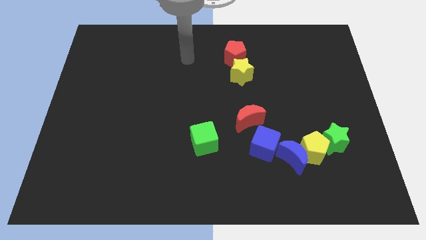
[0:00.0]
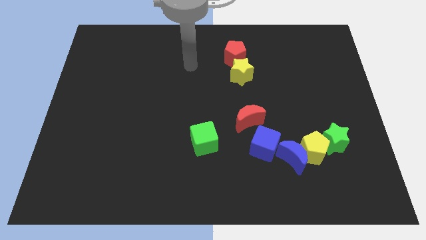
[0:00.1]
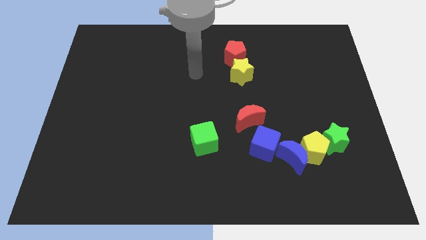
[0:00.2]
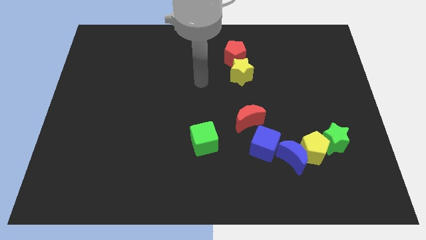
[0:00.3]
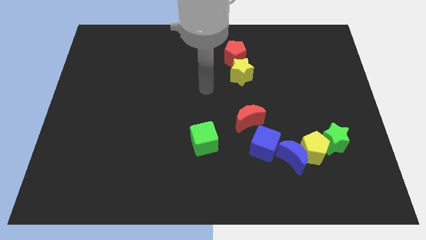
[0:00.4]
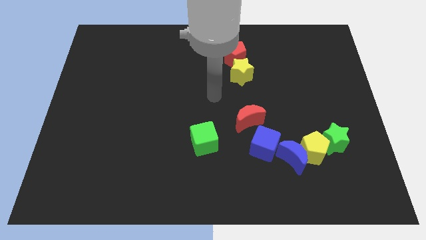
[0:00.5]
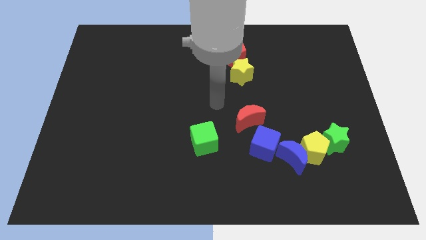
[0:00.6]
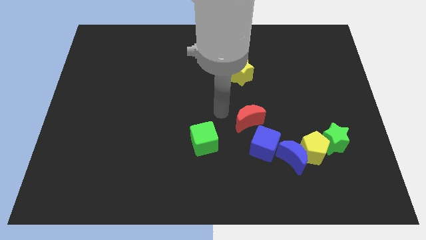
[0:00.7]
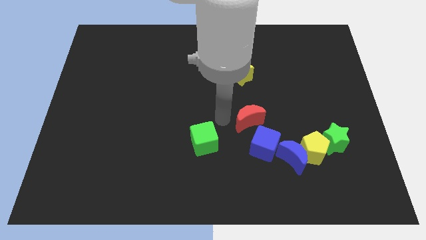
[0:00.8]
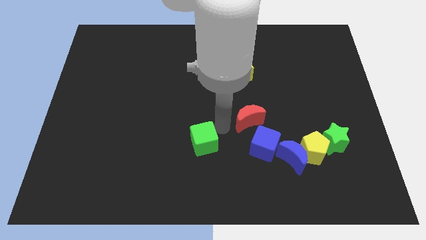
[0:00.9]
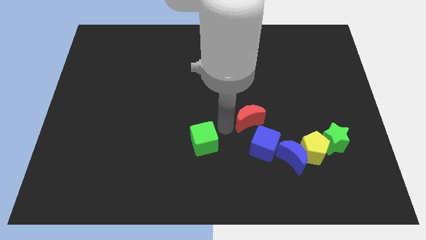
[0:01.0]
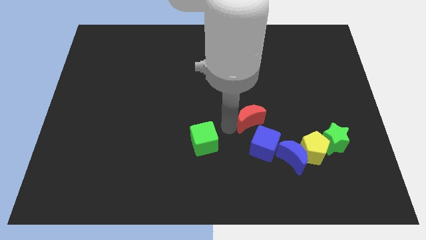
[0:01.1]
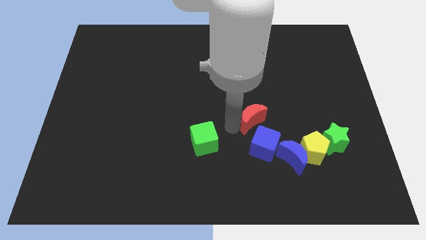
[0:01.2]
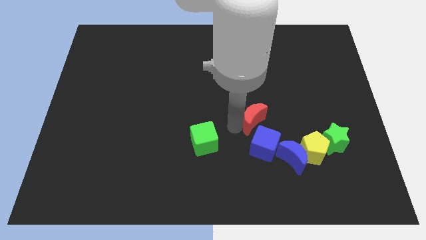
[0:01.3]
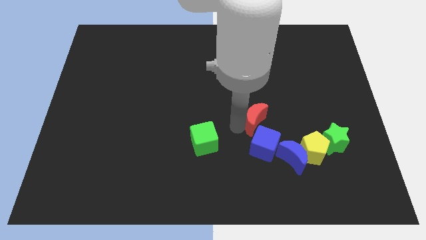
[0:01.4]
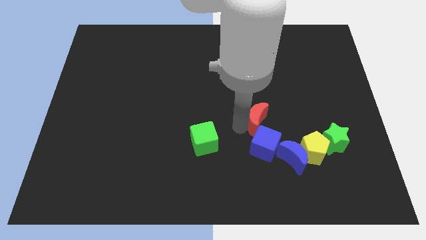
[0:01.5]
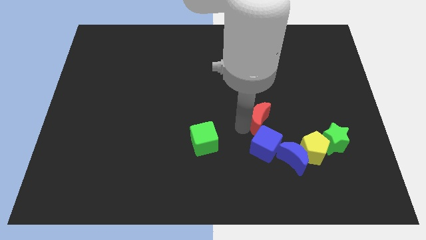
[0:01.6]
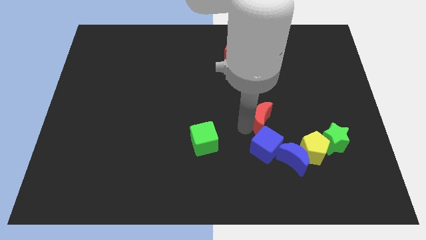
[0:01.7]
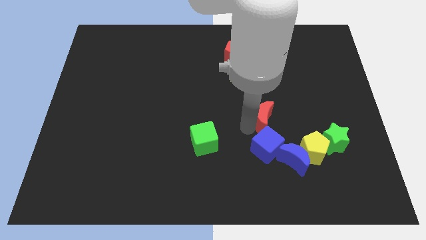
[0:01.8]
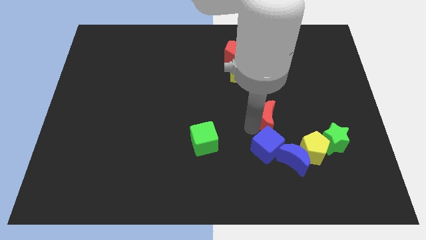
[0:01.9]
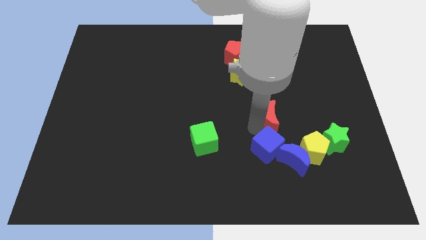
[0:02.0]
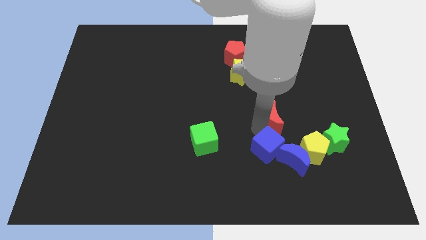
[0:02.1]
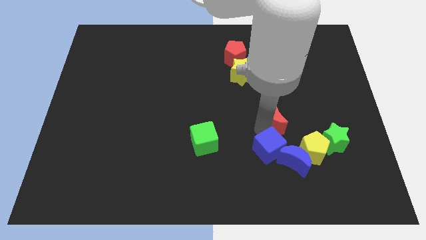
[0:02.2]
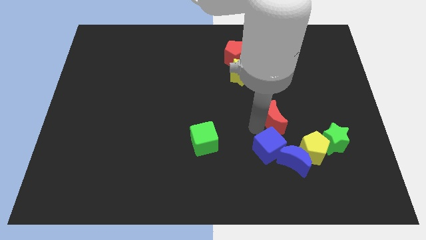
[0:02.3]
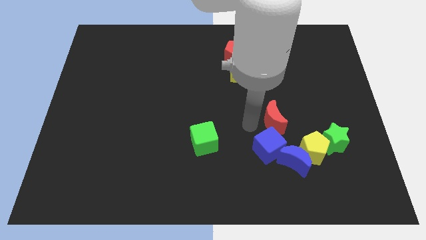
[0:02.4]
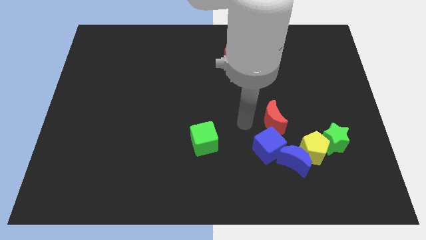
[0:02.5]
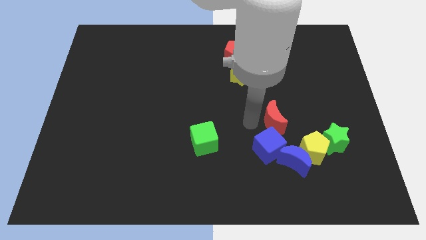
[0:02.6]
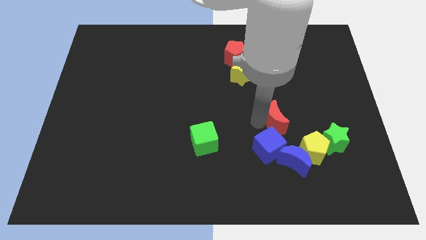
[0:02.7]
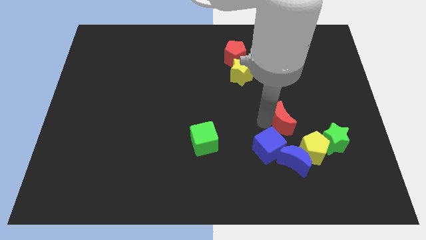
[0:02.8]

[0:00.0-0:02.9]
slightly push the red moon right

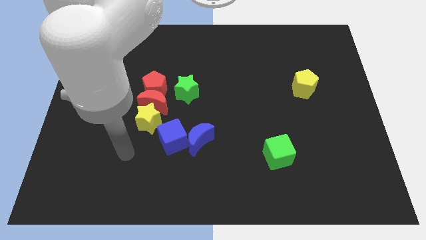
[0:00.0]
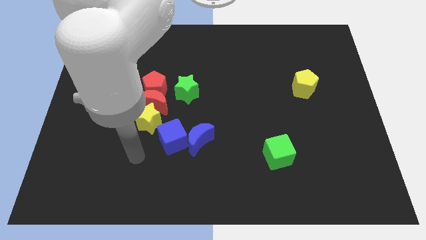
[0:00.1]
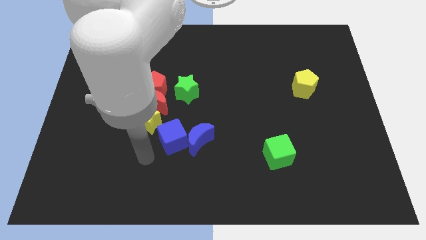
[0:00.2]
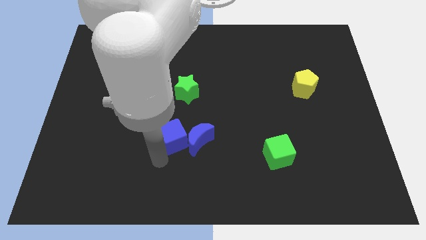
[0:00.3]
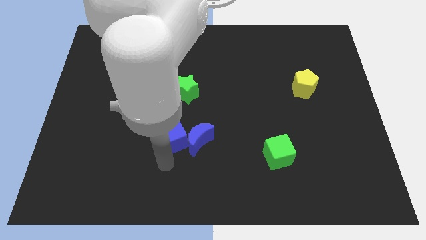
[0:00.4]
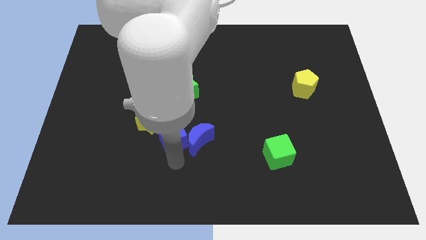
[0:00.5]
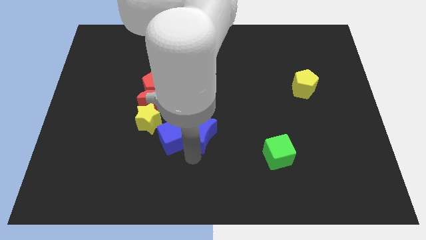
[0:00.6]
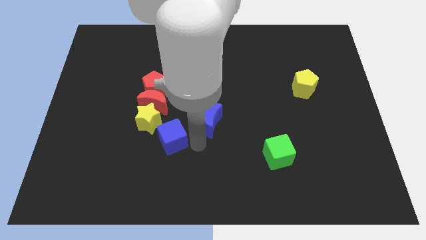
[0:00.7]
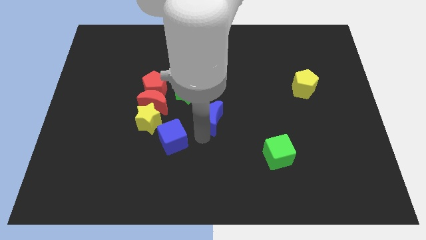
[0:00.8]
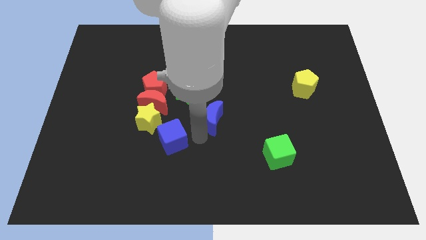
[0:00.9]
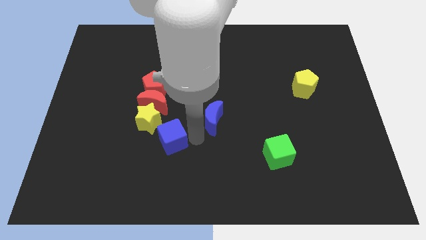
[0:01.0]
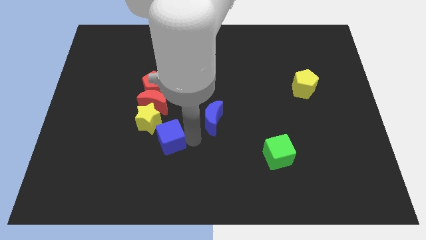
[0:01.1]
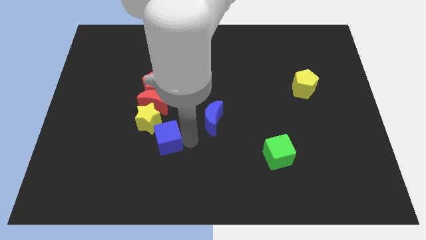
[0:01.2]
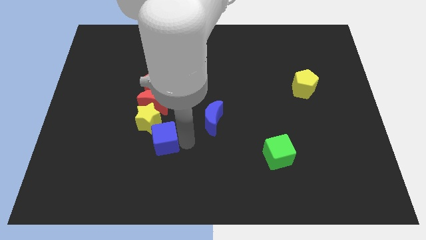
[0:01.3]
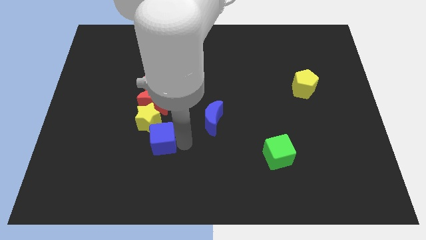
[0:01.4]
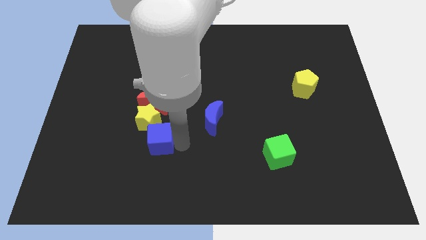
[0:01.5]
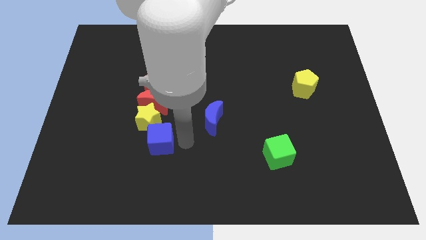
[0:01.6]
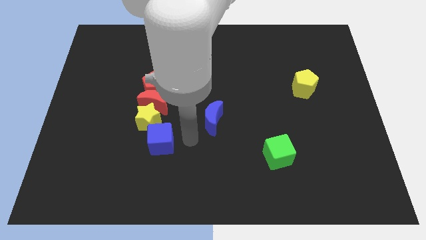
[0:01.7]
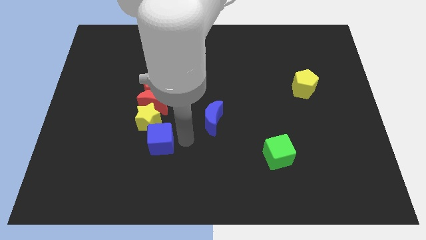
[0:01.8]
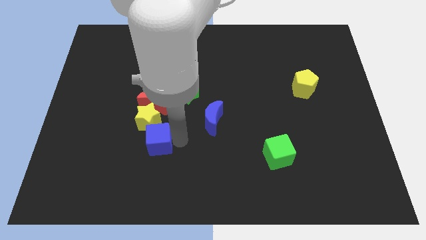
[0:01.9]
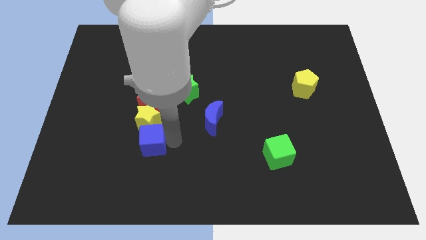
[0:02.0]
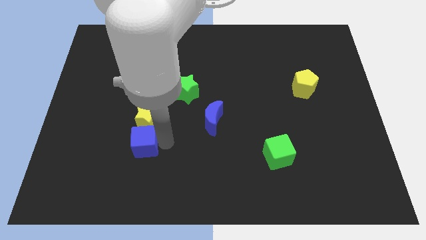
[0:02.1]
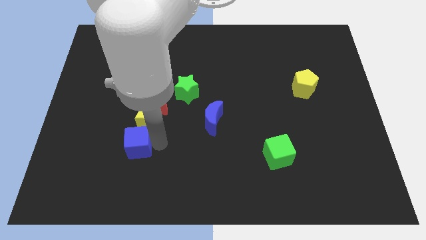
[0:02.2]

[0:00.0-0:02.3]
slide the blue cube left a little

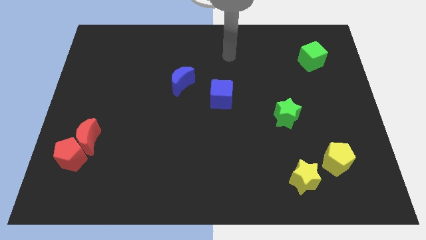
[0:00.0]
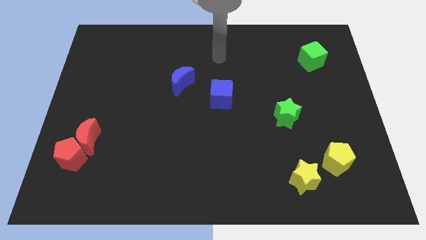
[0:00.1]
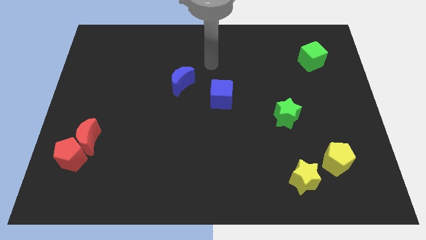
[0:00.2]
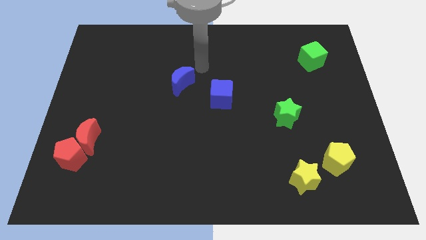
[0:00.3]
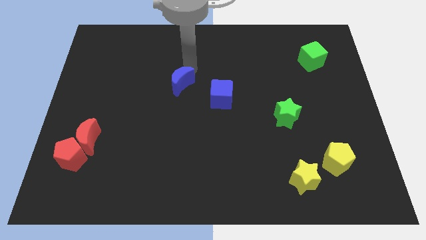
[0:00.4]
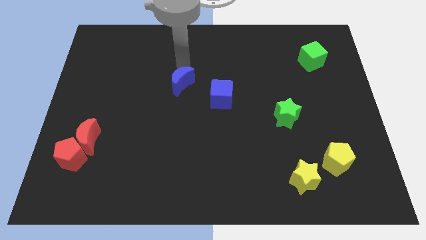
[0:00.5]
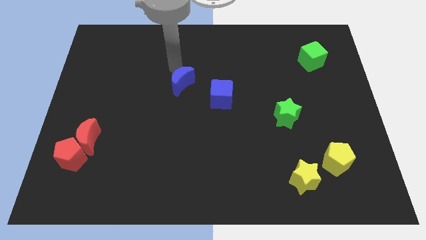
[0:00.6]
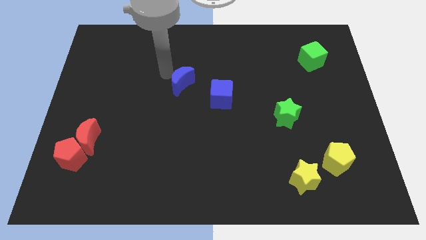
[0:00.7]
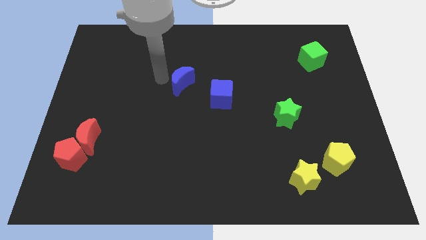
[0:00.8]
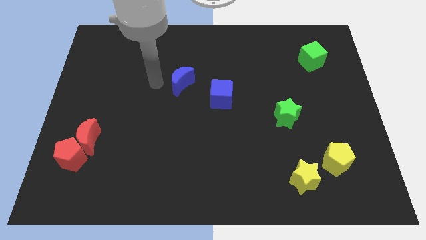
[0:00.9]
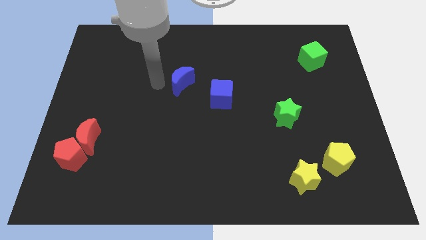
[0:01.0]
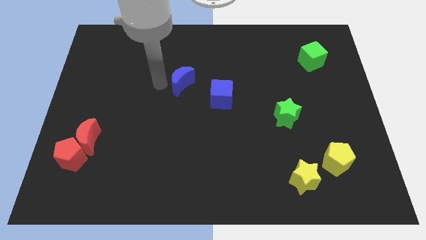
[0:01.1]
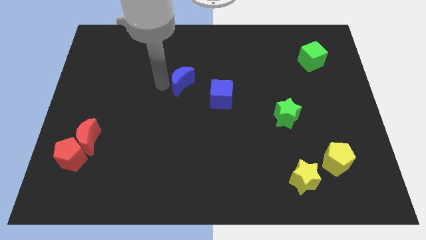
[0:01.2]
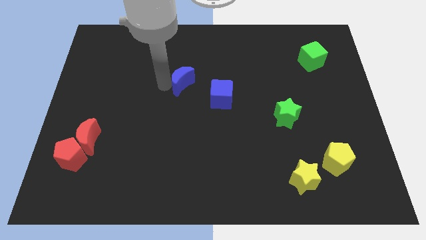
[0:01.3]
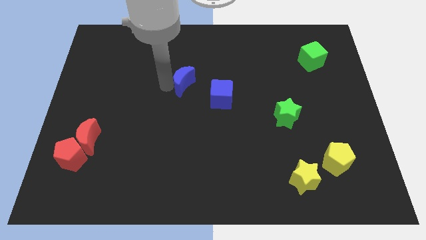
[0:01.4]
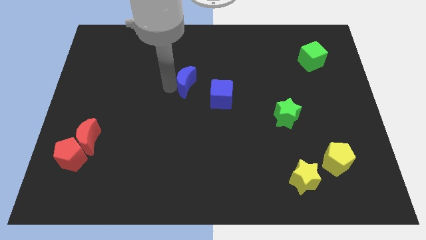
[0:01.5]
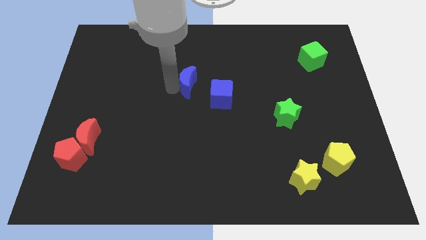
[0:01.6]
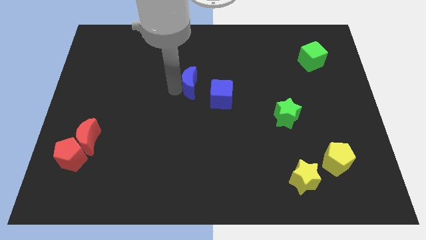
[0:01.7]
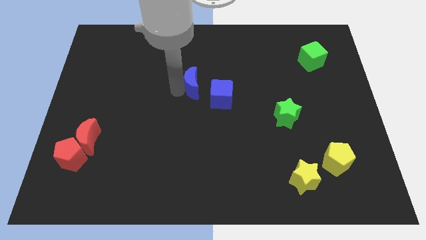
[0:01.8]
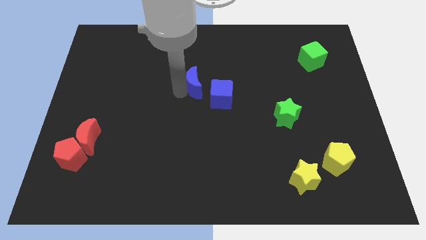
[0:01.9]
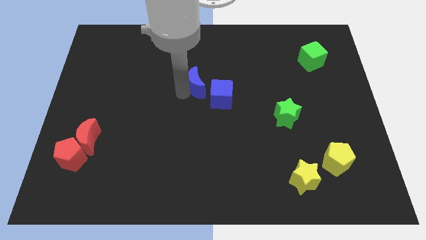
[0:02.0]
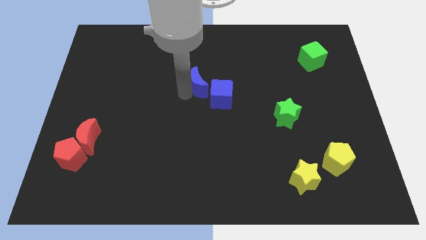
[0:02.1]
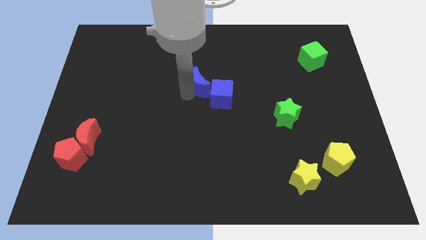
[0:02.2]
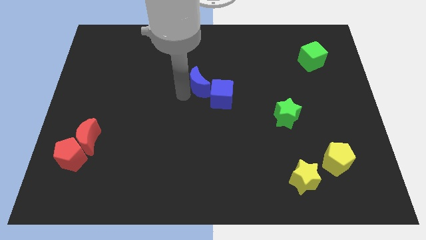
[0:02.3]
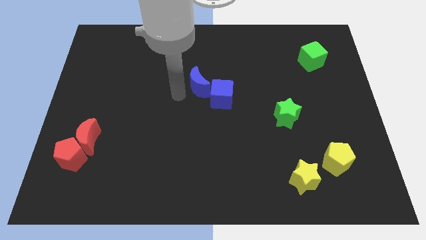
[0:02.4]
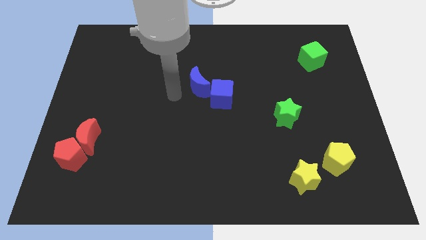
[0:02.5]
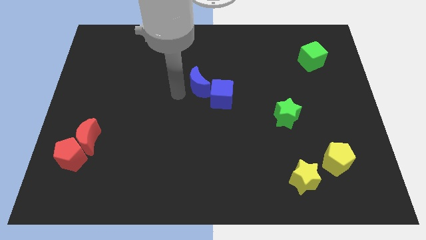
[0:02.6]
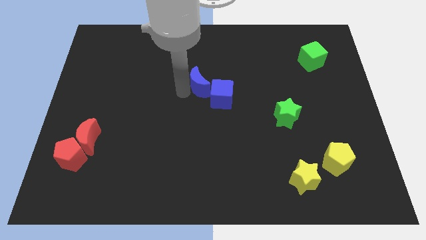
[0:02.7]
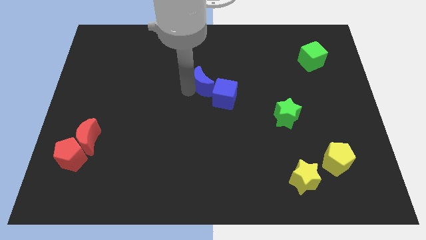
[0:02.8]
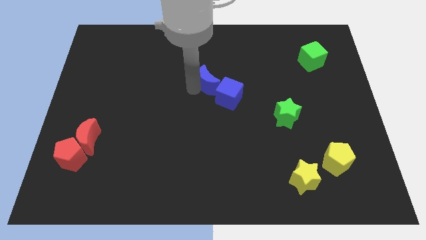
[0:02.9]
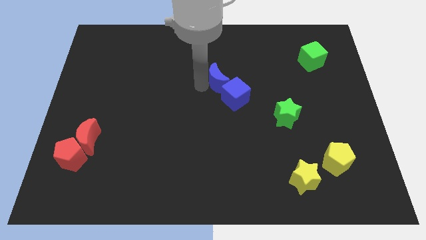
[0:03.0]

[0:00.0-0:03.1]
push the blue moon right somewhat
